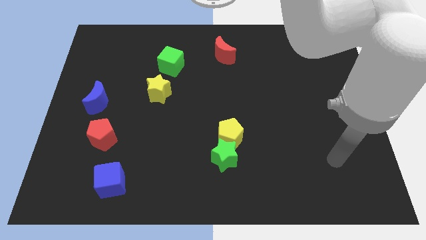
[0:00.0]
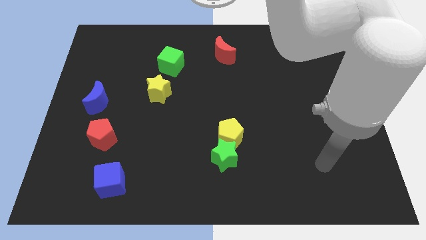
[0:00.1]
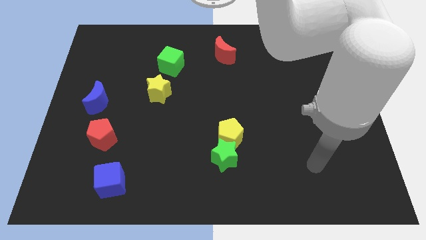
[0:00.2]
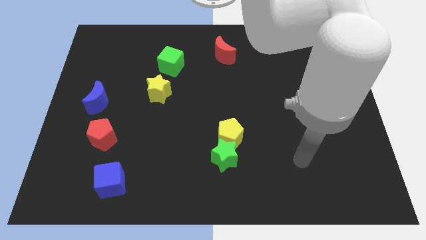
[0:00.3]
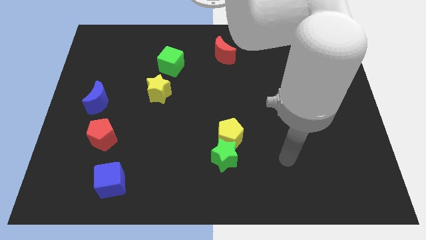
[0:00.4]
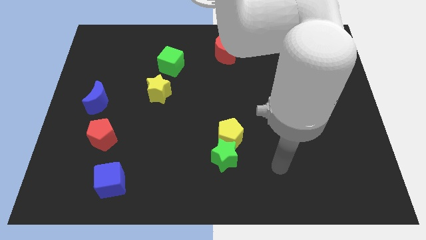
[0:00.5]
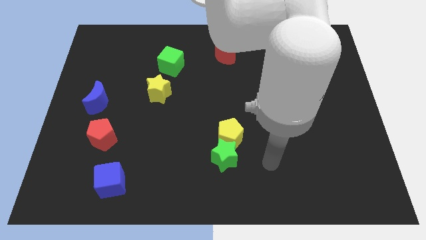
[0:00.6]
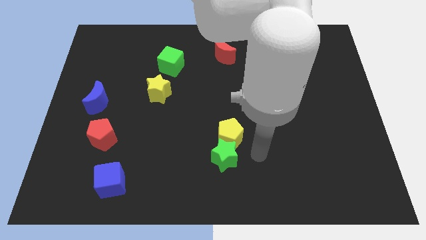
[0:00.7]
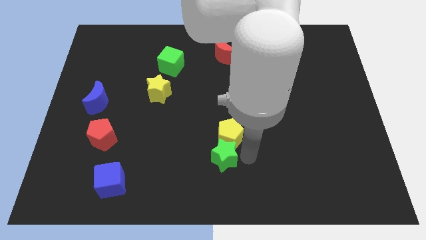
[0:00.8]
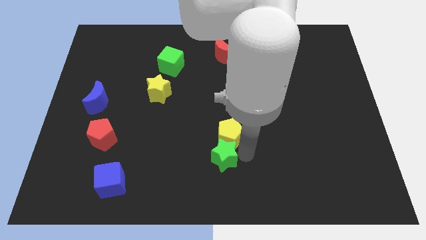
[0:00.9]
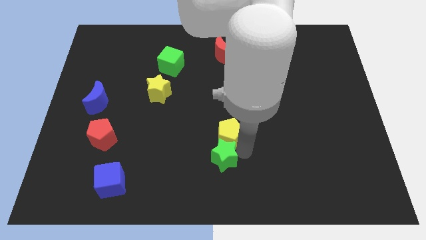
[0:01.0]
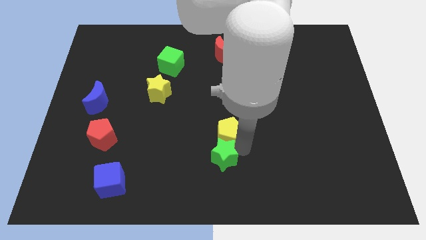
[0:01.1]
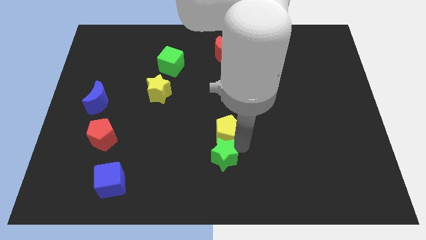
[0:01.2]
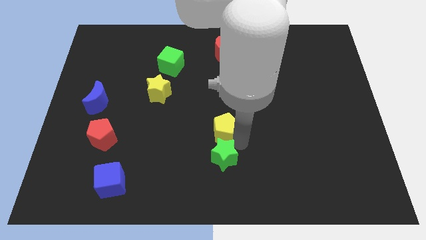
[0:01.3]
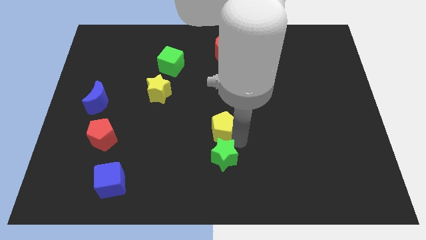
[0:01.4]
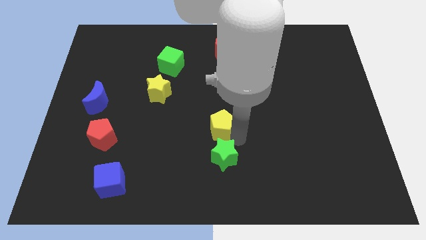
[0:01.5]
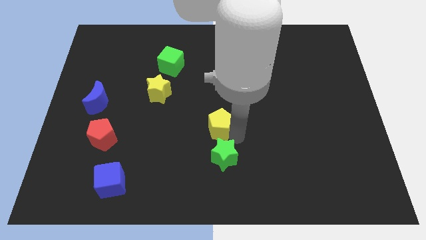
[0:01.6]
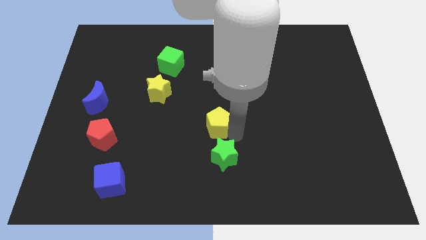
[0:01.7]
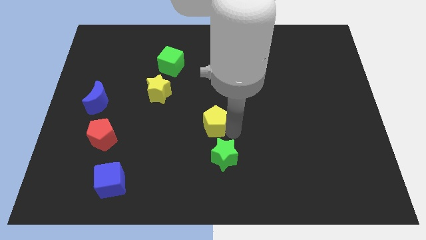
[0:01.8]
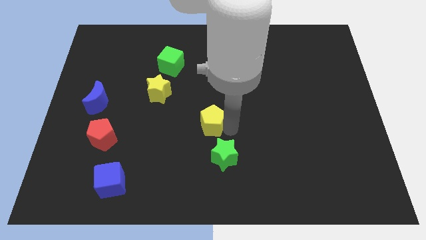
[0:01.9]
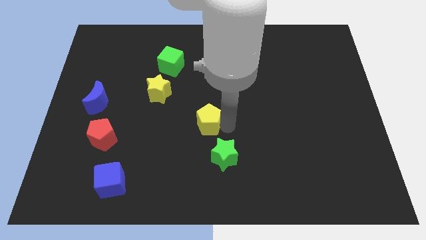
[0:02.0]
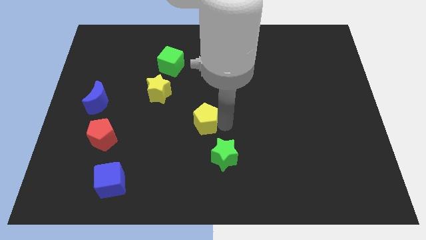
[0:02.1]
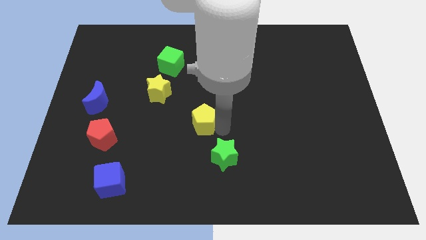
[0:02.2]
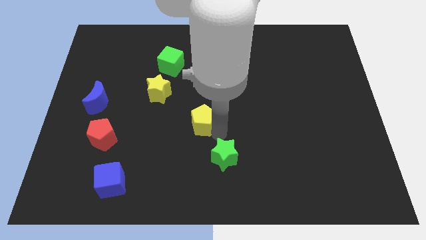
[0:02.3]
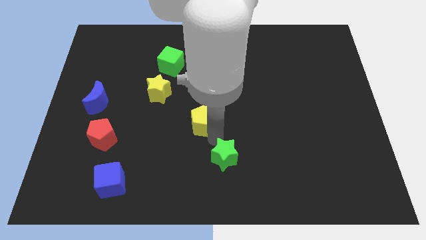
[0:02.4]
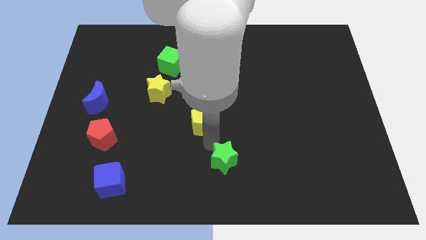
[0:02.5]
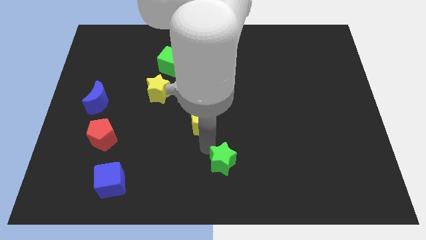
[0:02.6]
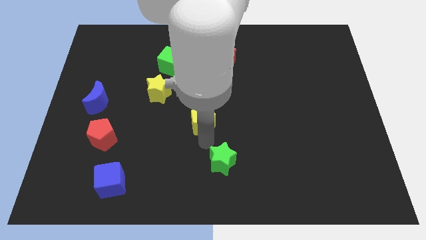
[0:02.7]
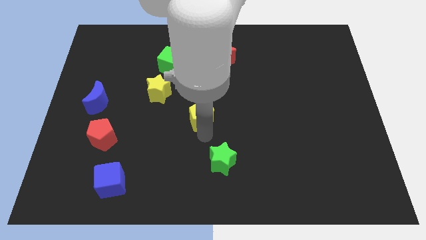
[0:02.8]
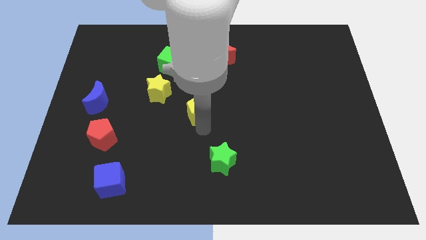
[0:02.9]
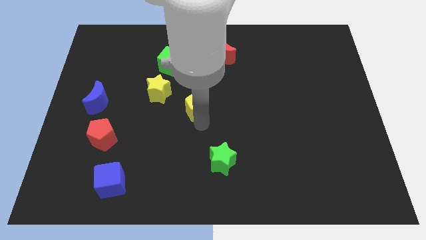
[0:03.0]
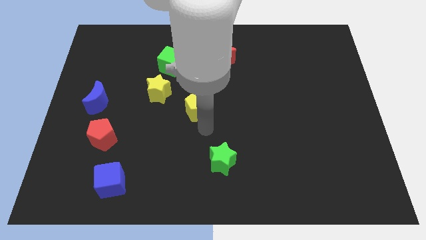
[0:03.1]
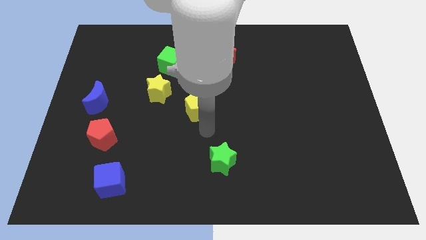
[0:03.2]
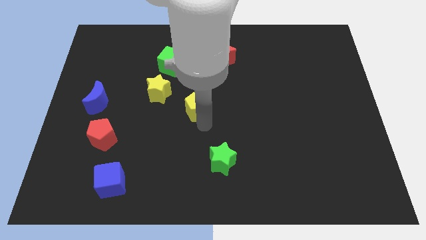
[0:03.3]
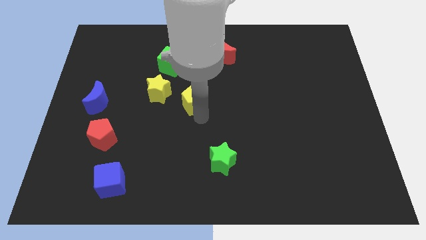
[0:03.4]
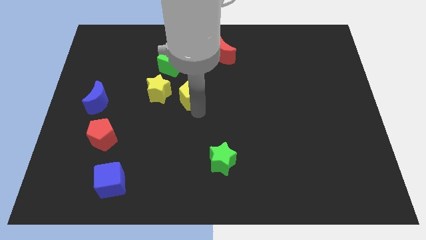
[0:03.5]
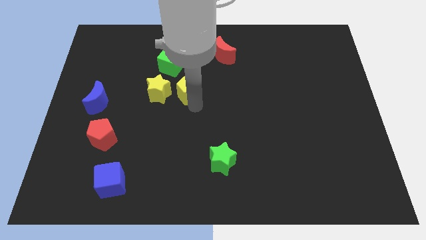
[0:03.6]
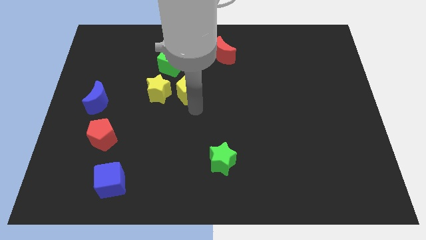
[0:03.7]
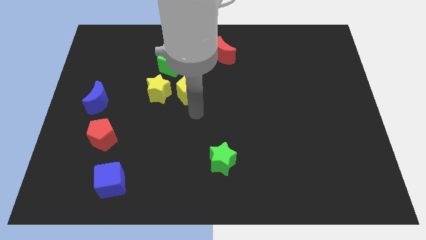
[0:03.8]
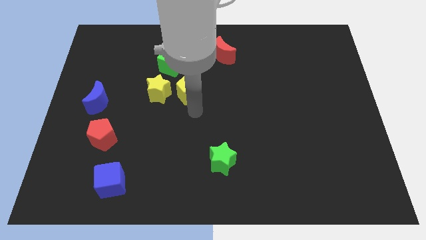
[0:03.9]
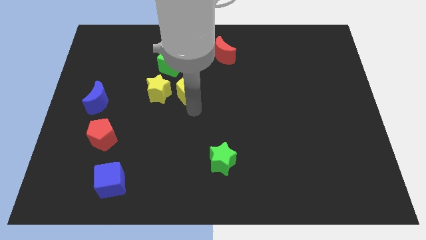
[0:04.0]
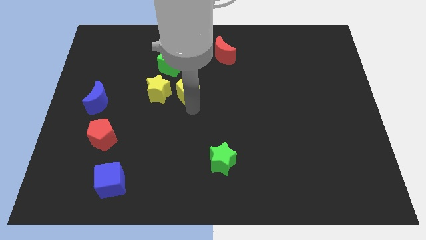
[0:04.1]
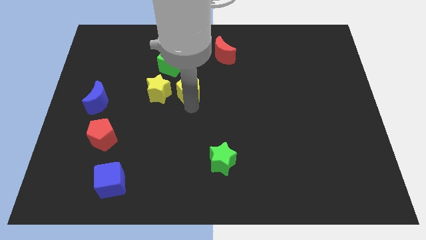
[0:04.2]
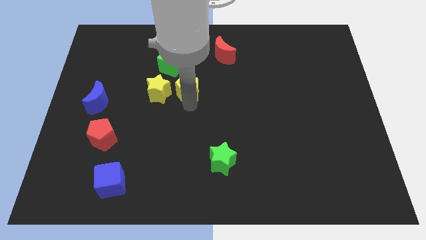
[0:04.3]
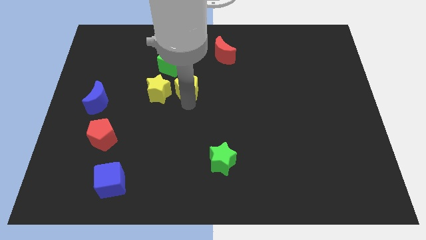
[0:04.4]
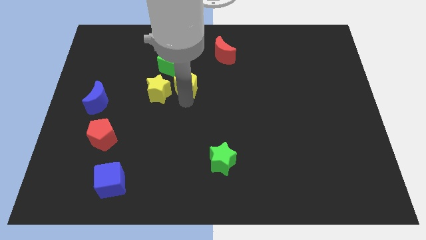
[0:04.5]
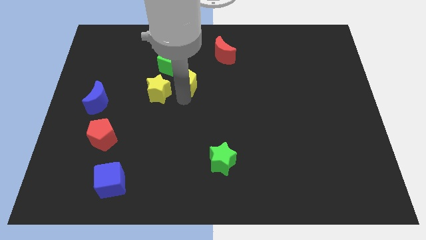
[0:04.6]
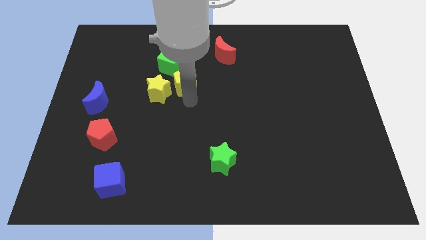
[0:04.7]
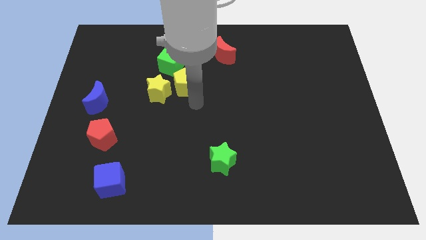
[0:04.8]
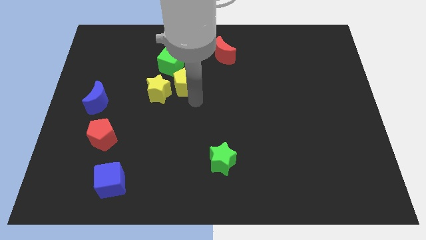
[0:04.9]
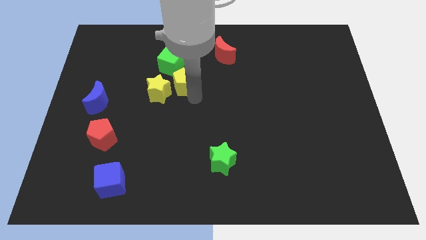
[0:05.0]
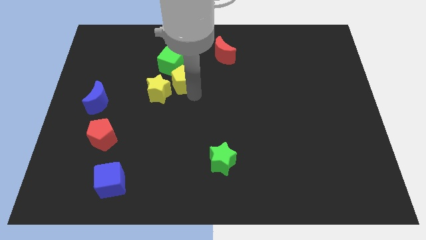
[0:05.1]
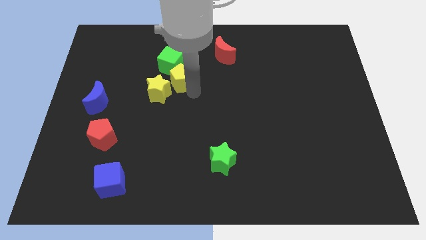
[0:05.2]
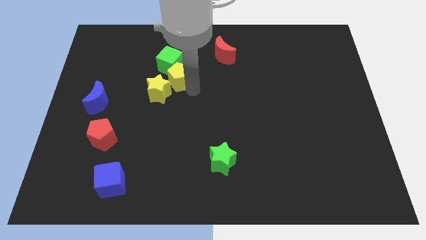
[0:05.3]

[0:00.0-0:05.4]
put the yellow pentagon towards the green cube

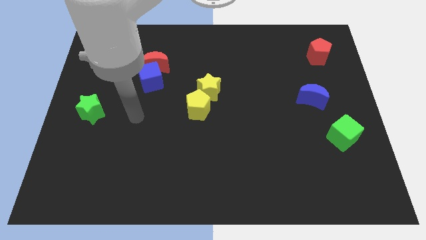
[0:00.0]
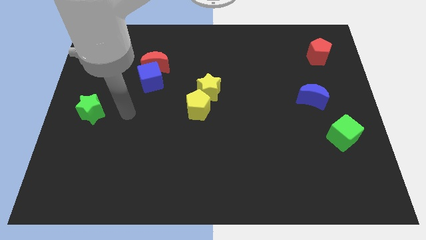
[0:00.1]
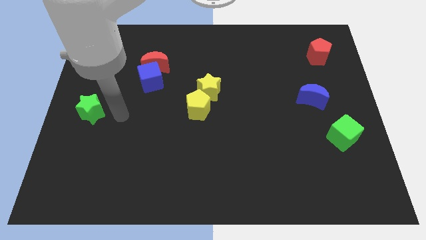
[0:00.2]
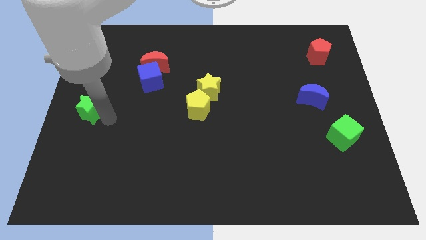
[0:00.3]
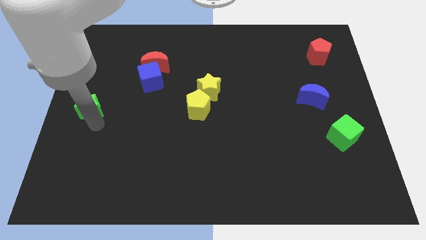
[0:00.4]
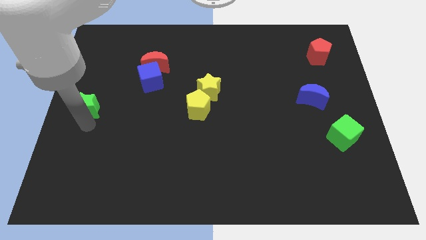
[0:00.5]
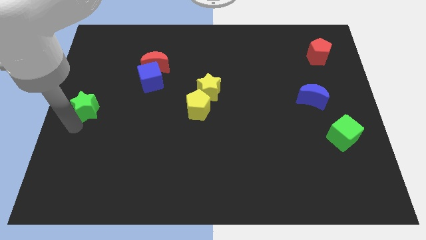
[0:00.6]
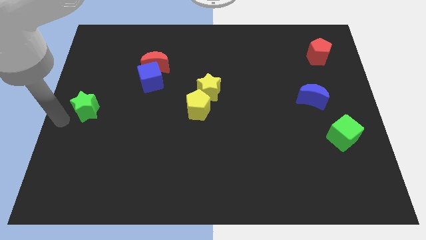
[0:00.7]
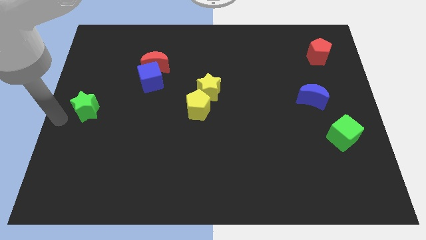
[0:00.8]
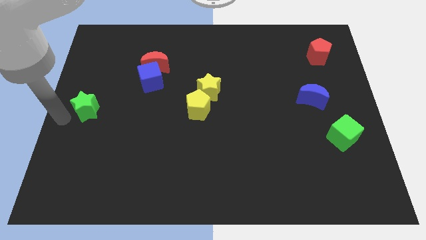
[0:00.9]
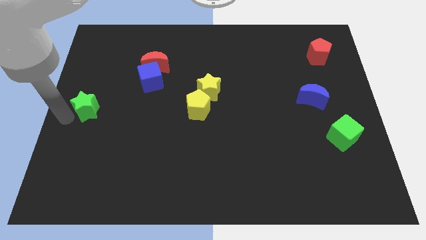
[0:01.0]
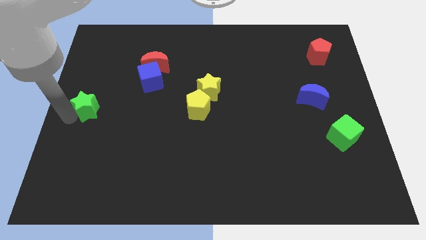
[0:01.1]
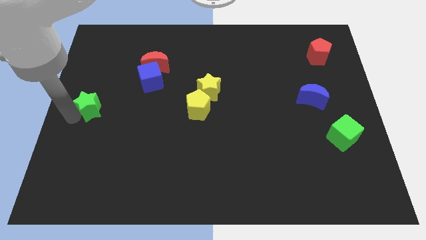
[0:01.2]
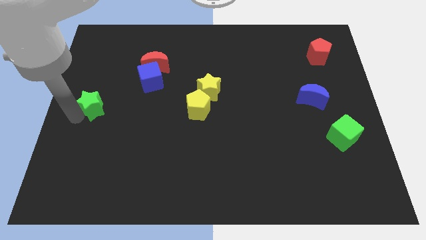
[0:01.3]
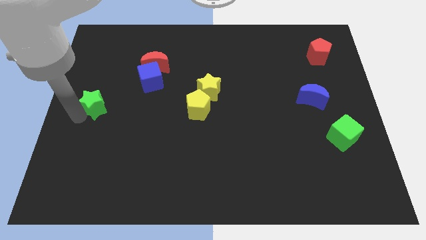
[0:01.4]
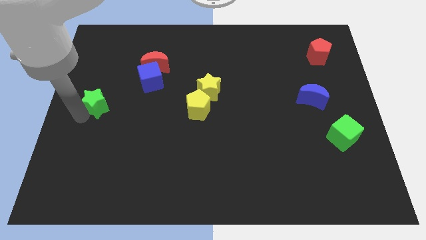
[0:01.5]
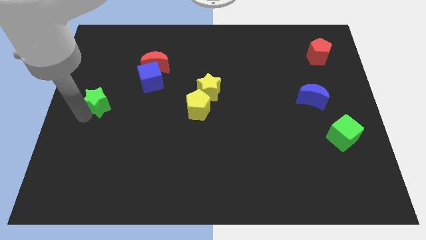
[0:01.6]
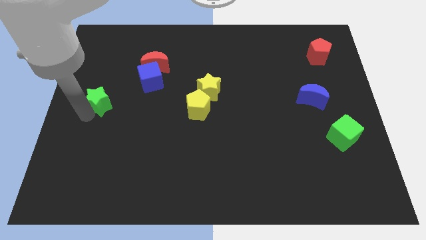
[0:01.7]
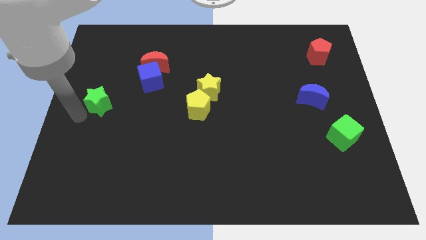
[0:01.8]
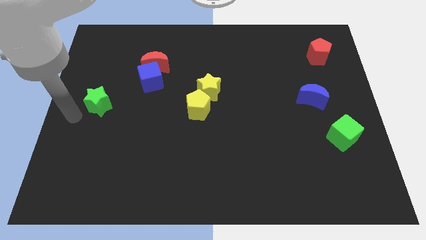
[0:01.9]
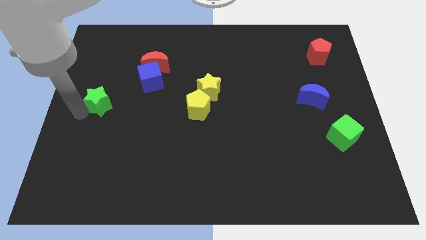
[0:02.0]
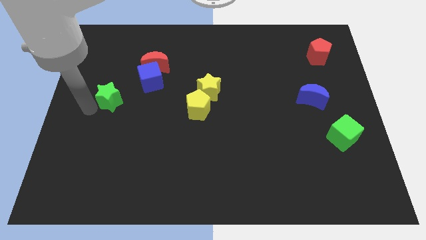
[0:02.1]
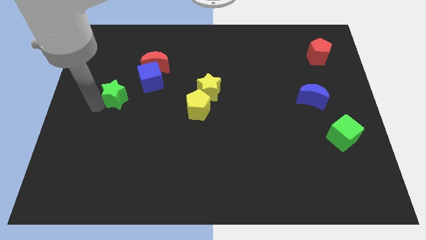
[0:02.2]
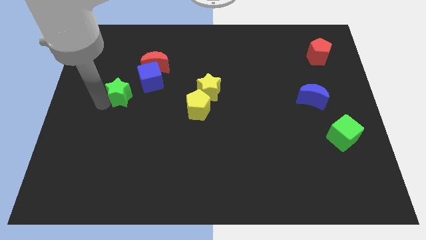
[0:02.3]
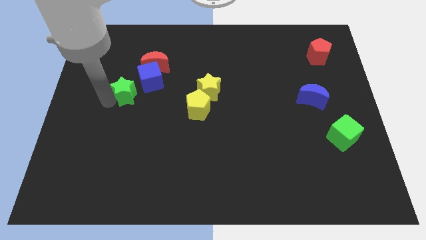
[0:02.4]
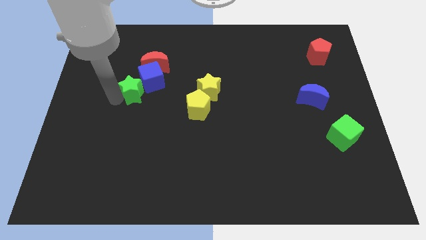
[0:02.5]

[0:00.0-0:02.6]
slide the green star towards the blue cube
